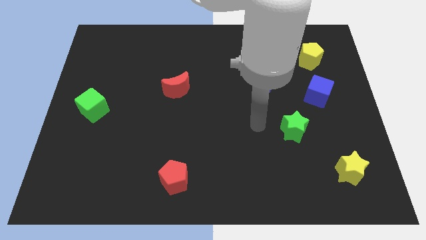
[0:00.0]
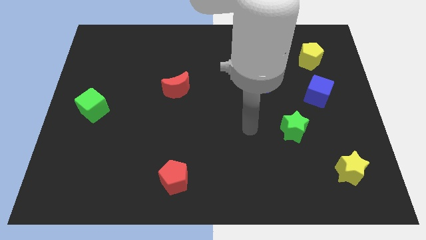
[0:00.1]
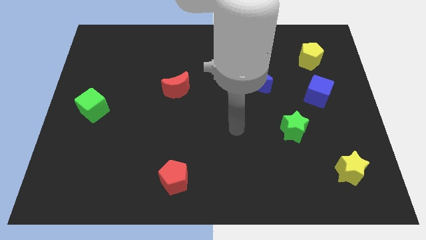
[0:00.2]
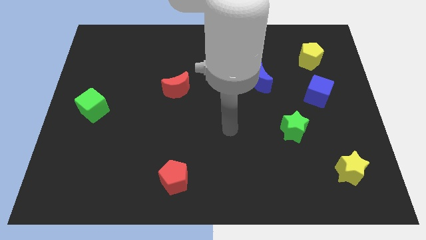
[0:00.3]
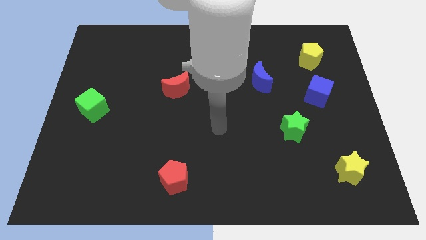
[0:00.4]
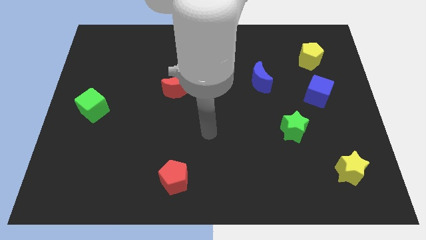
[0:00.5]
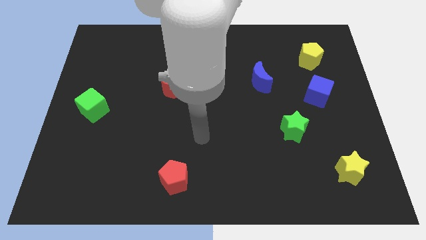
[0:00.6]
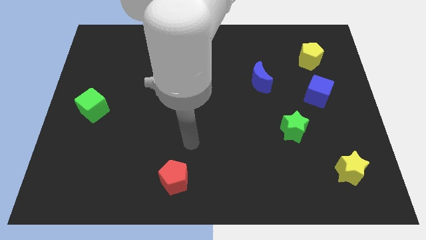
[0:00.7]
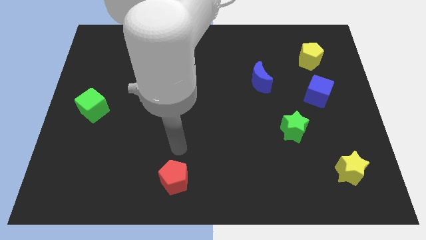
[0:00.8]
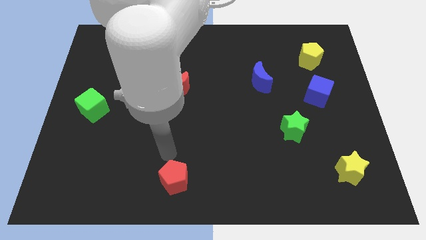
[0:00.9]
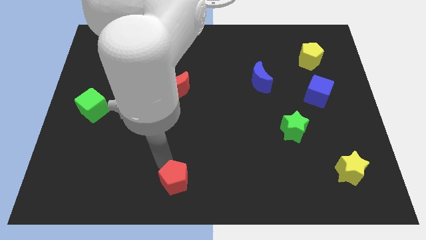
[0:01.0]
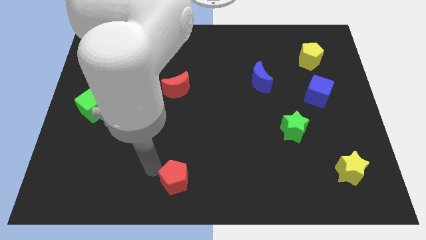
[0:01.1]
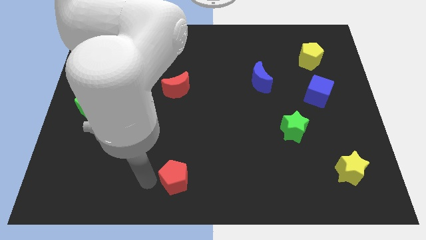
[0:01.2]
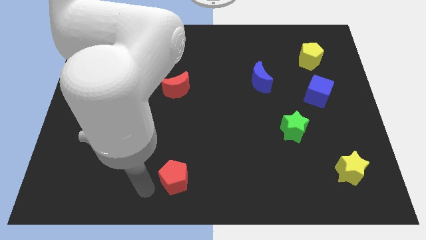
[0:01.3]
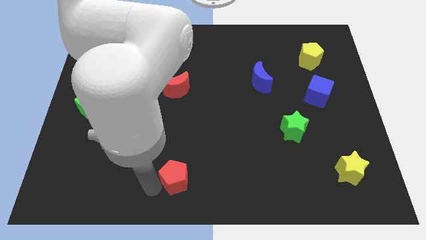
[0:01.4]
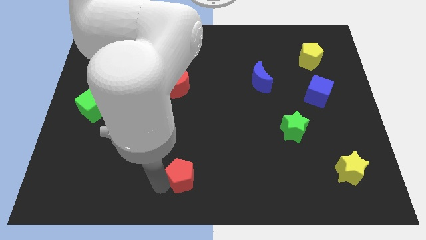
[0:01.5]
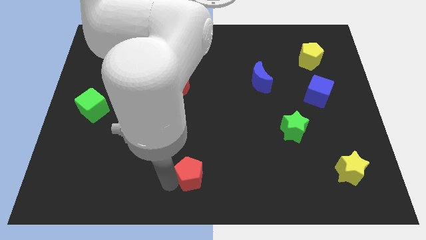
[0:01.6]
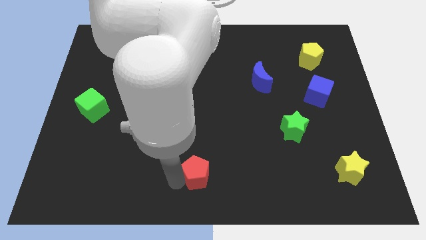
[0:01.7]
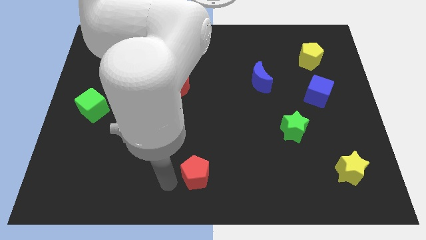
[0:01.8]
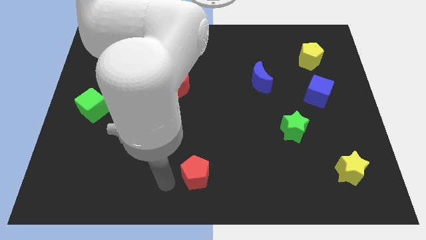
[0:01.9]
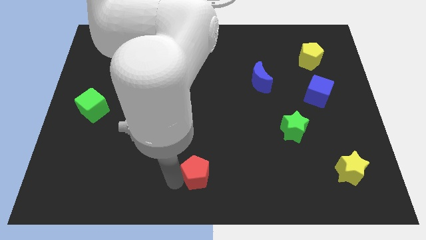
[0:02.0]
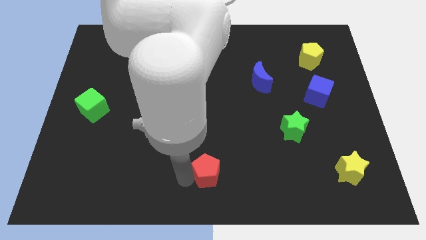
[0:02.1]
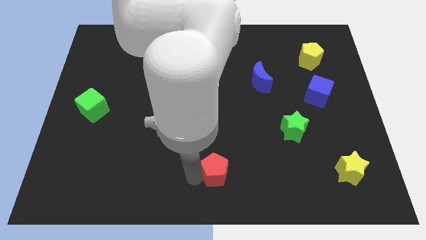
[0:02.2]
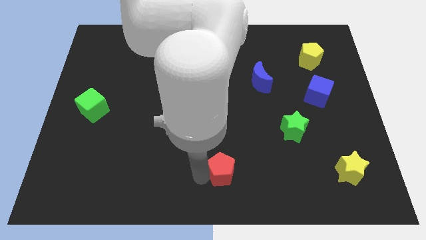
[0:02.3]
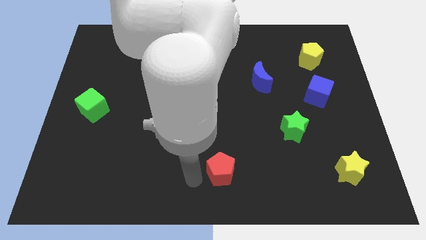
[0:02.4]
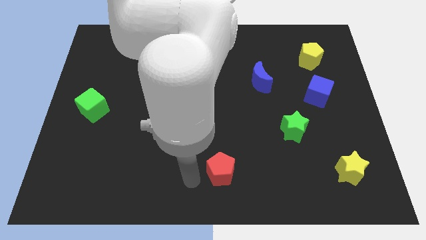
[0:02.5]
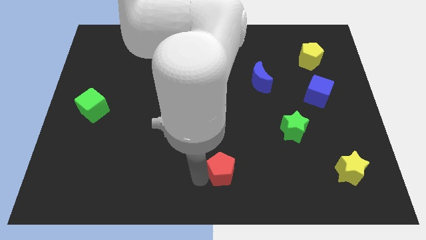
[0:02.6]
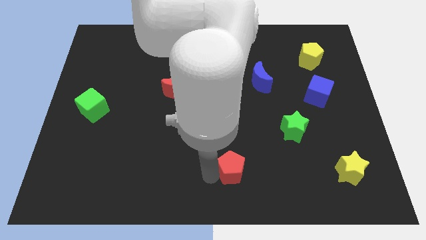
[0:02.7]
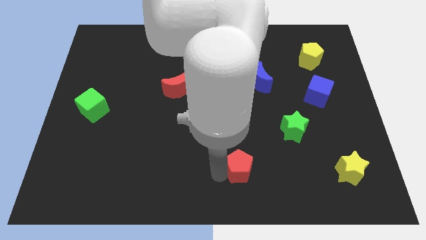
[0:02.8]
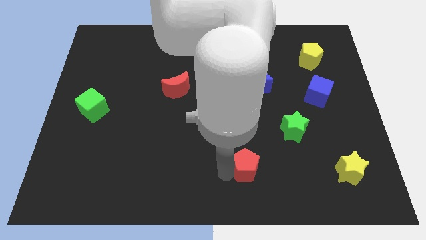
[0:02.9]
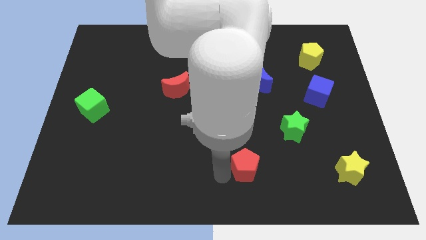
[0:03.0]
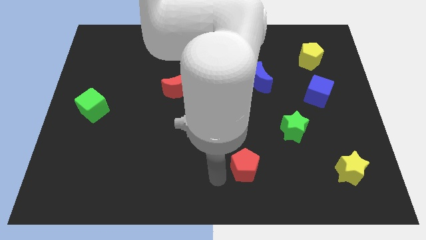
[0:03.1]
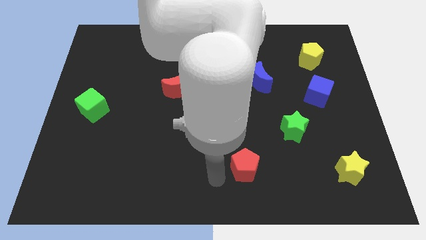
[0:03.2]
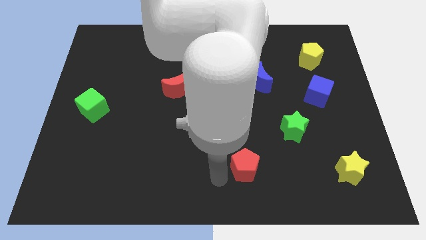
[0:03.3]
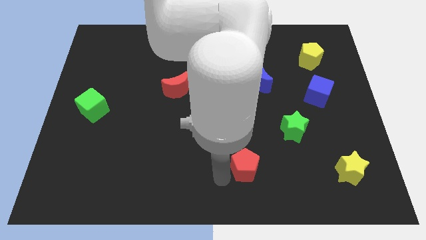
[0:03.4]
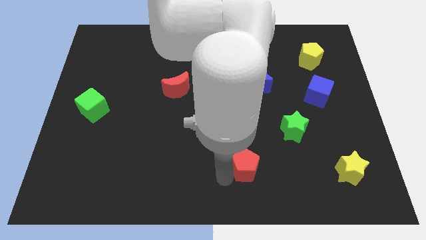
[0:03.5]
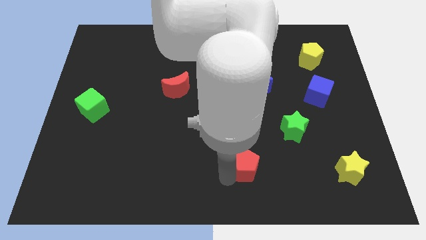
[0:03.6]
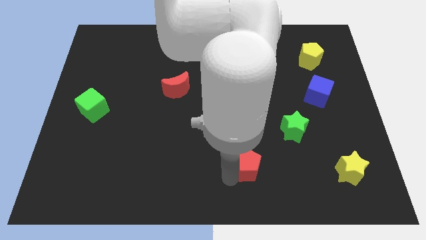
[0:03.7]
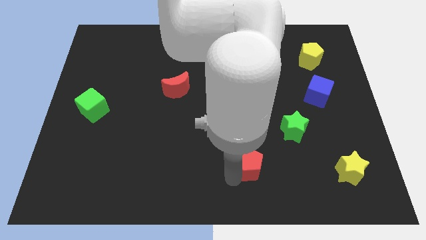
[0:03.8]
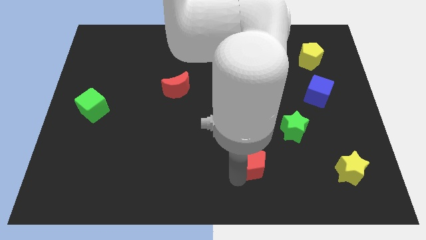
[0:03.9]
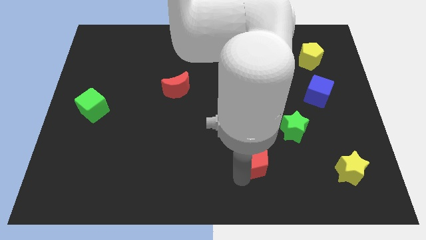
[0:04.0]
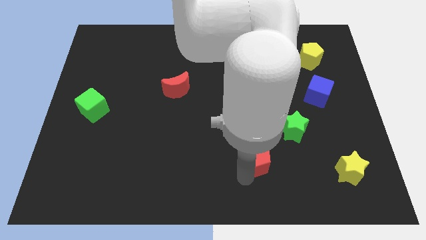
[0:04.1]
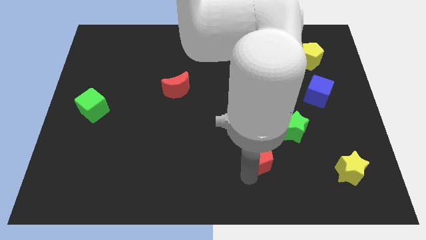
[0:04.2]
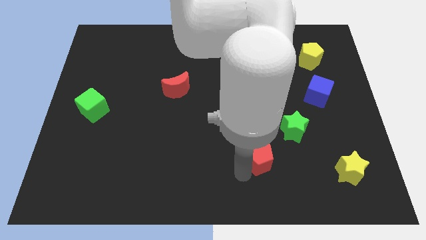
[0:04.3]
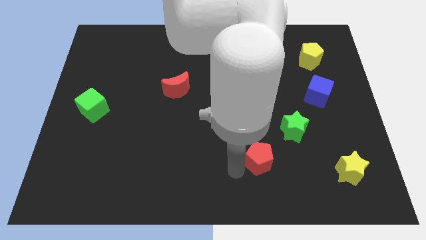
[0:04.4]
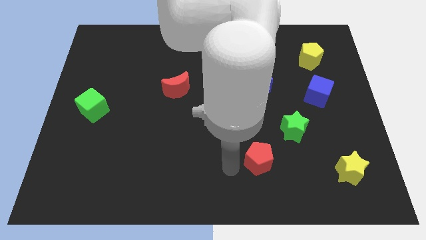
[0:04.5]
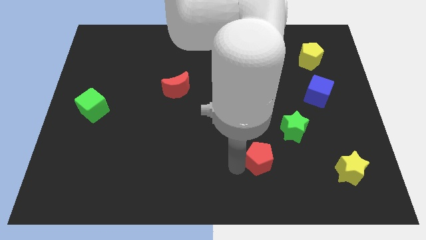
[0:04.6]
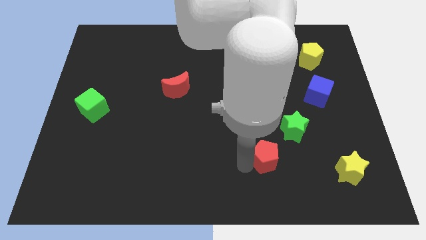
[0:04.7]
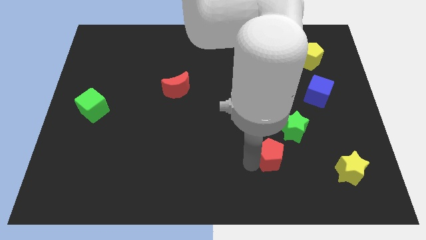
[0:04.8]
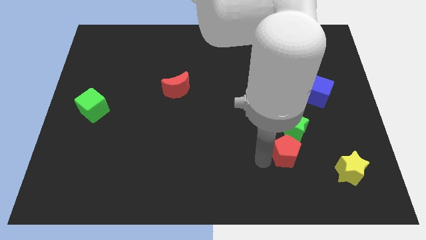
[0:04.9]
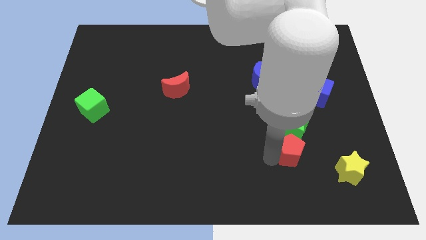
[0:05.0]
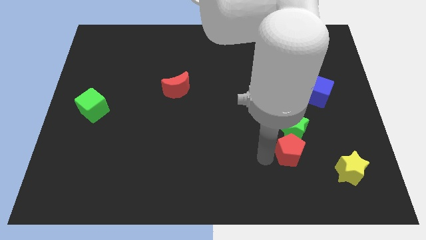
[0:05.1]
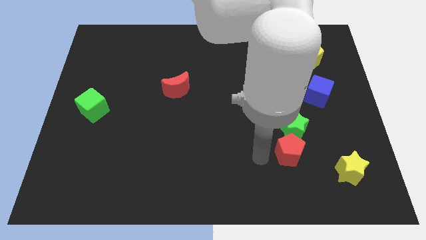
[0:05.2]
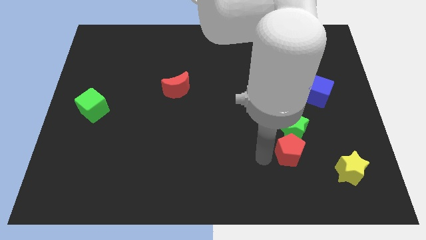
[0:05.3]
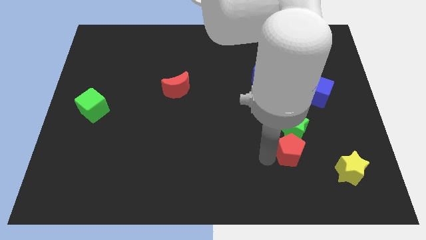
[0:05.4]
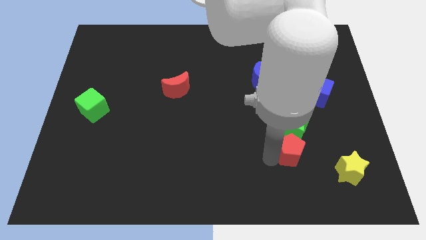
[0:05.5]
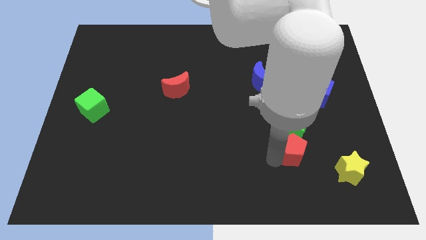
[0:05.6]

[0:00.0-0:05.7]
push the red pentagon diagonally down and to the right of the green star

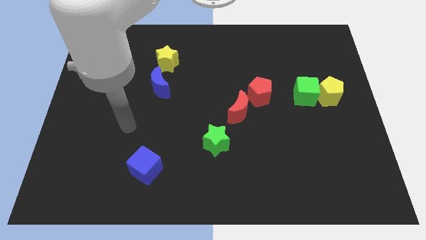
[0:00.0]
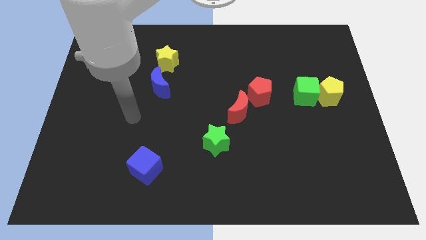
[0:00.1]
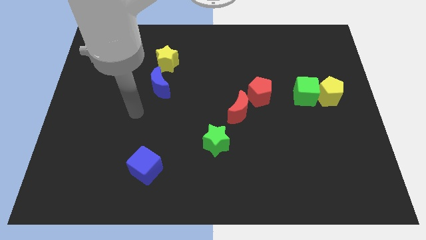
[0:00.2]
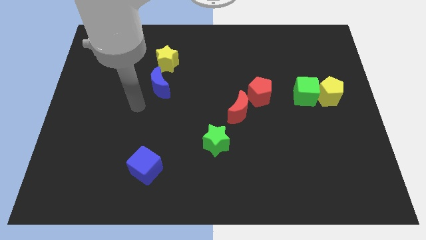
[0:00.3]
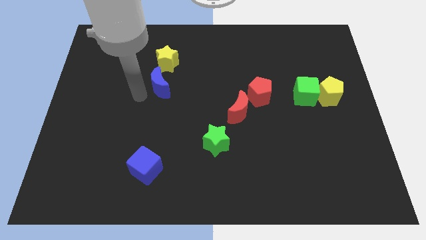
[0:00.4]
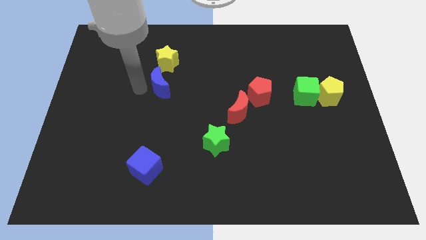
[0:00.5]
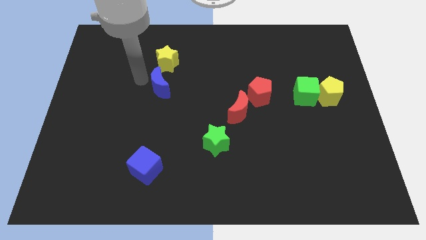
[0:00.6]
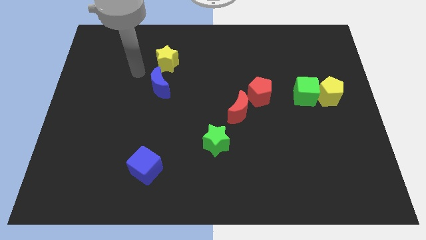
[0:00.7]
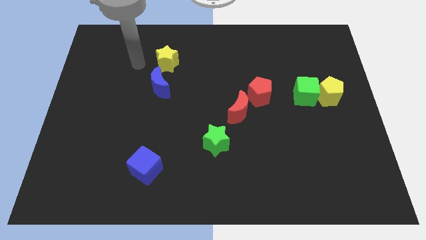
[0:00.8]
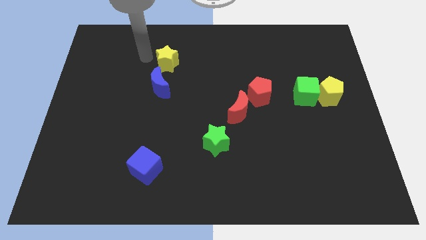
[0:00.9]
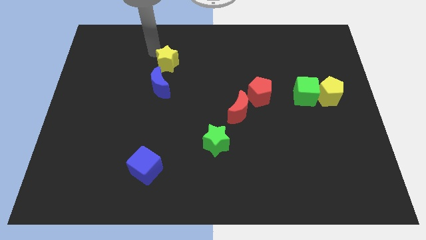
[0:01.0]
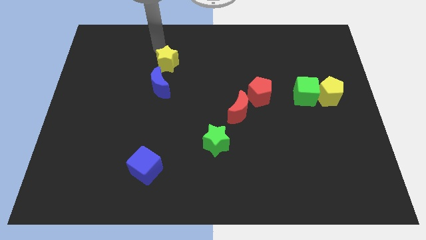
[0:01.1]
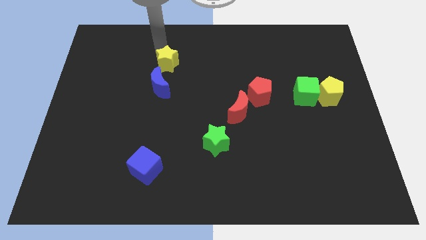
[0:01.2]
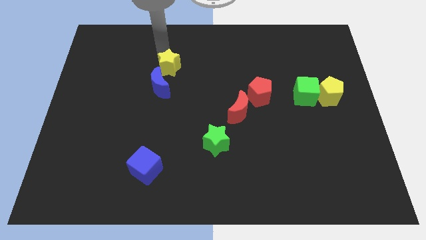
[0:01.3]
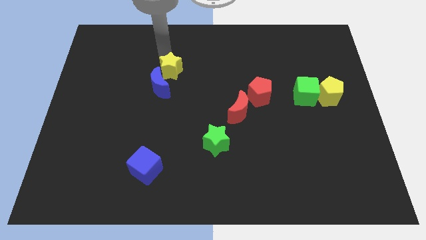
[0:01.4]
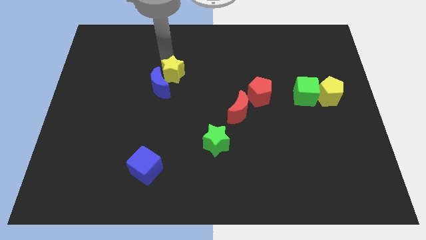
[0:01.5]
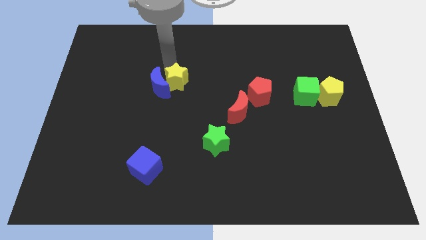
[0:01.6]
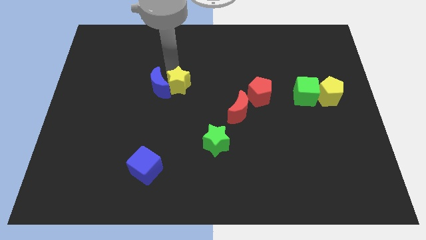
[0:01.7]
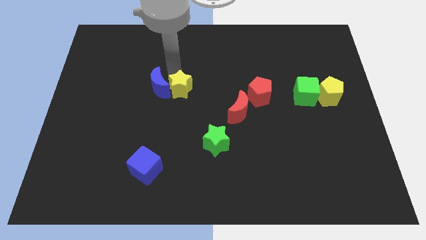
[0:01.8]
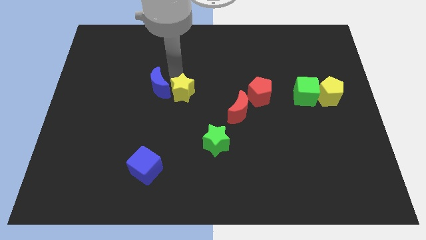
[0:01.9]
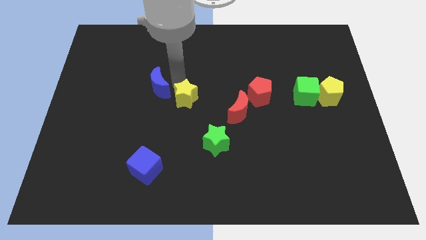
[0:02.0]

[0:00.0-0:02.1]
slide the yellow star left of the red moon

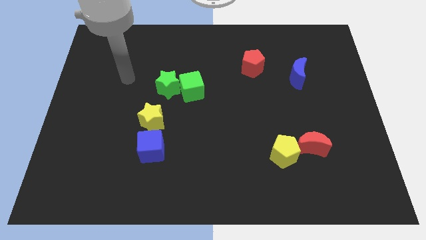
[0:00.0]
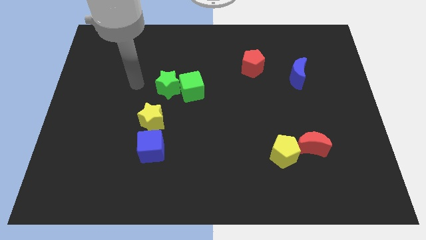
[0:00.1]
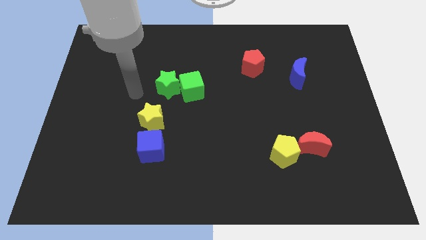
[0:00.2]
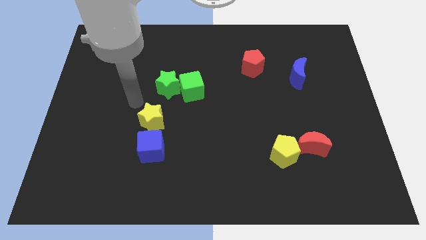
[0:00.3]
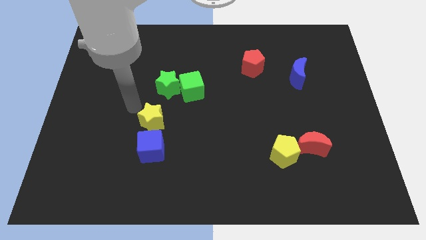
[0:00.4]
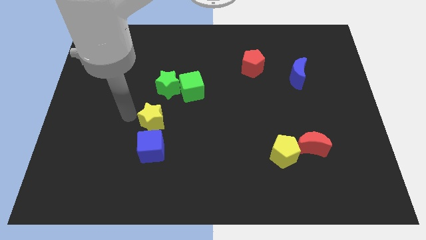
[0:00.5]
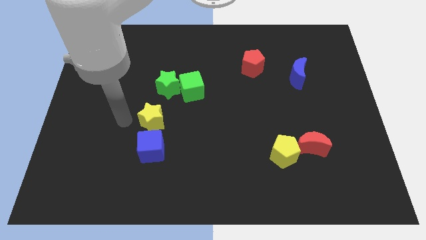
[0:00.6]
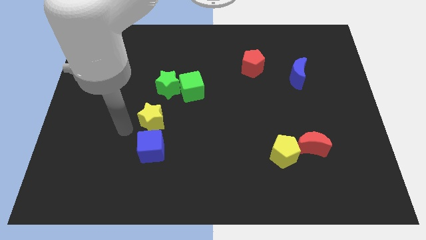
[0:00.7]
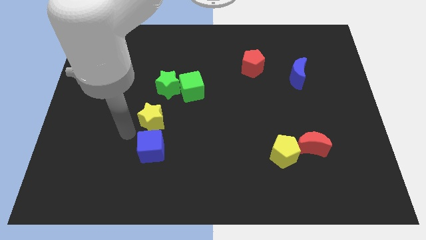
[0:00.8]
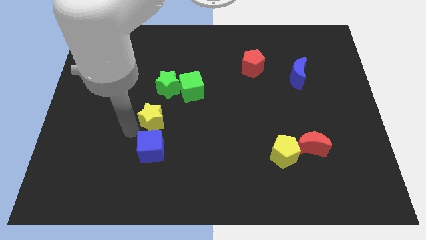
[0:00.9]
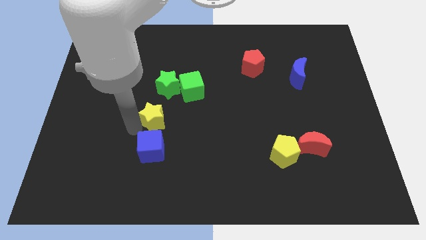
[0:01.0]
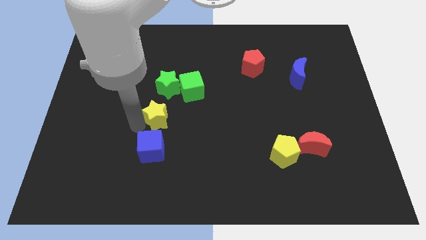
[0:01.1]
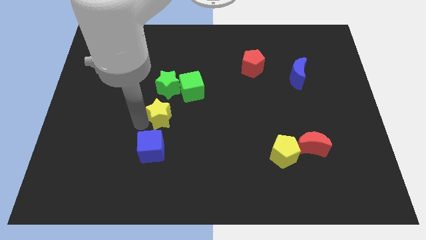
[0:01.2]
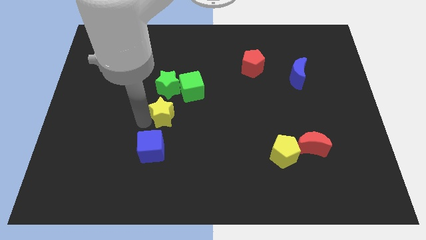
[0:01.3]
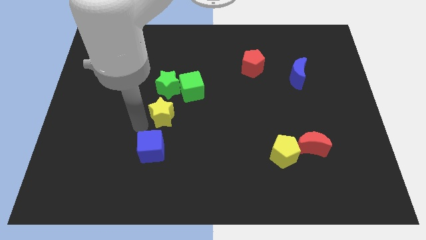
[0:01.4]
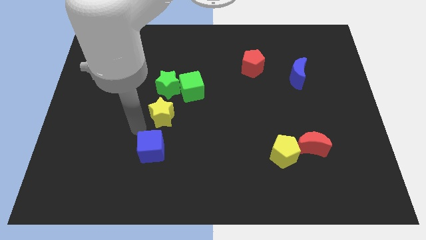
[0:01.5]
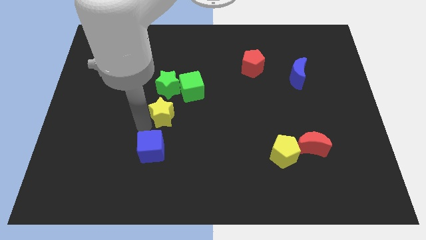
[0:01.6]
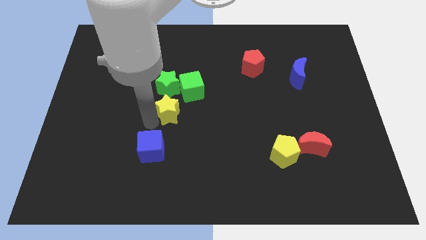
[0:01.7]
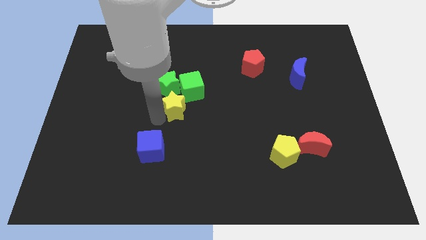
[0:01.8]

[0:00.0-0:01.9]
slide the yellow star to the bottom right side of the green star
